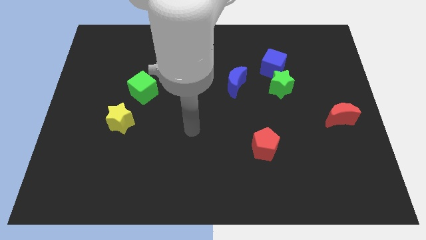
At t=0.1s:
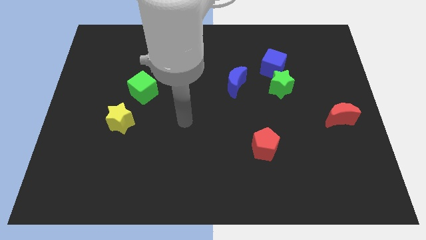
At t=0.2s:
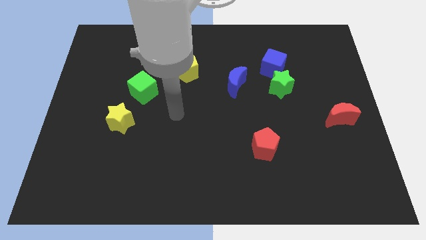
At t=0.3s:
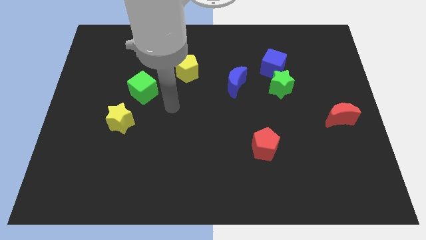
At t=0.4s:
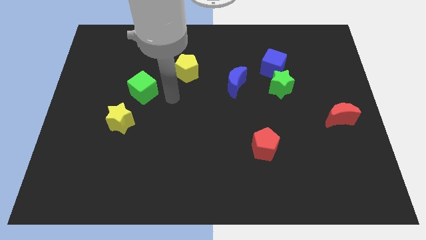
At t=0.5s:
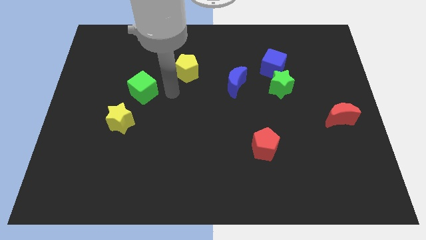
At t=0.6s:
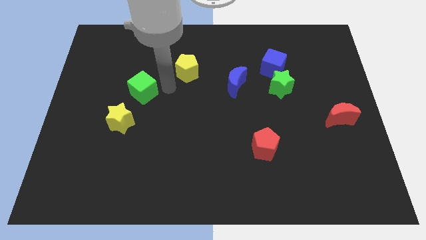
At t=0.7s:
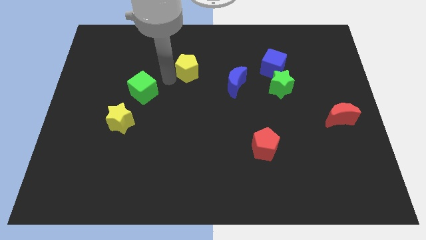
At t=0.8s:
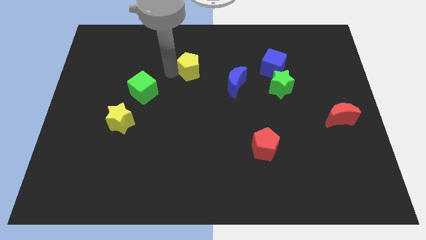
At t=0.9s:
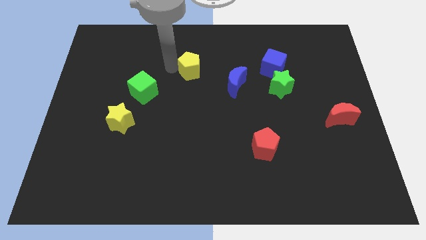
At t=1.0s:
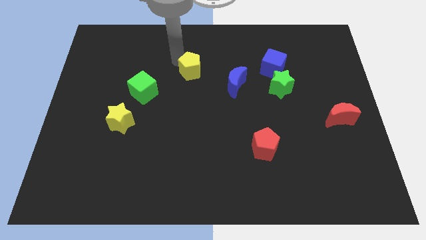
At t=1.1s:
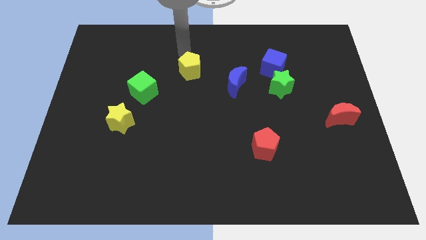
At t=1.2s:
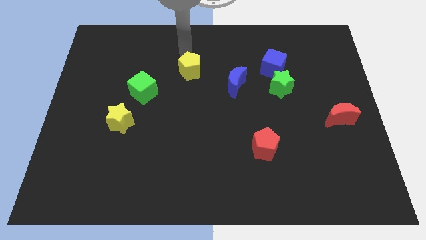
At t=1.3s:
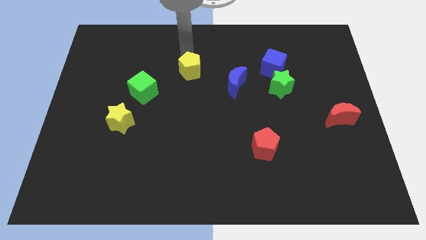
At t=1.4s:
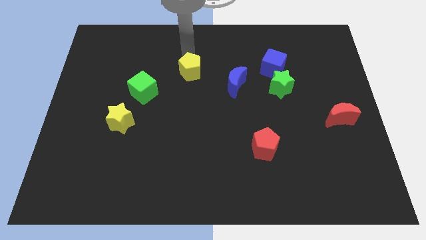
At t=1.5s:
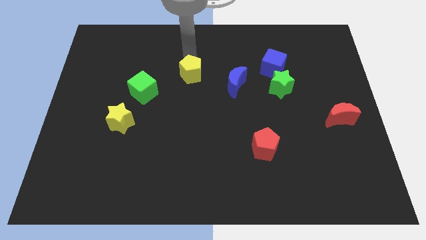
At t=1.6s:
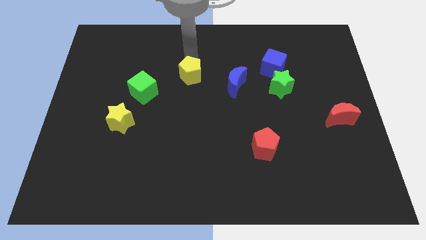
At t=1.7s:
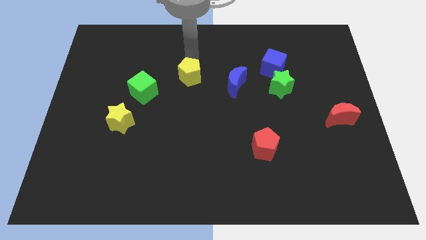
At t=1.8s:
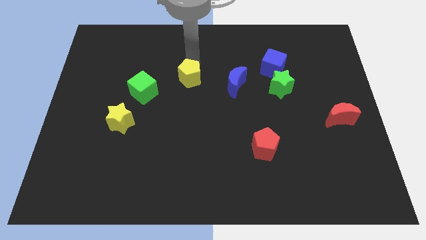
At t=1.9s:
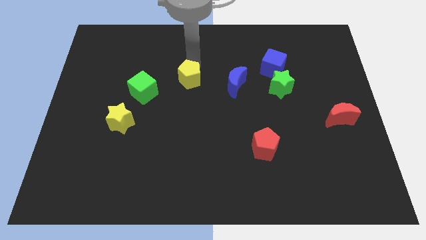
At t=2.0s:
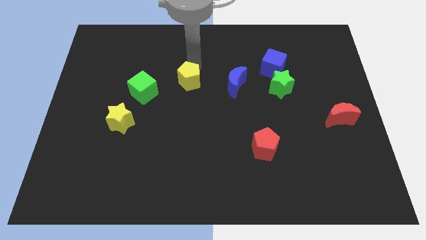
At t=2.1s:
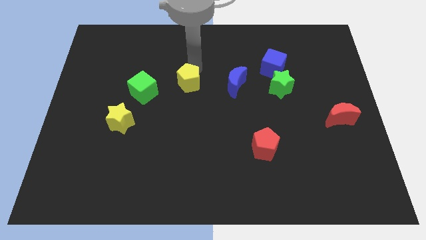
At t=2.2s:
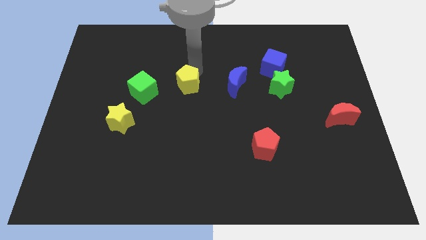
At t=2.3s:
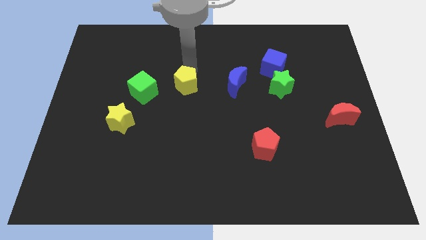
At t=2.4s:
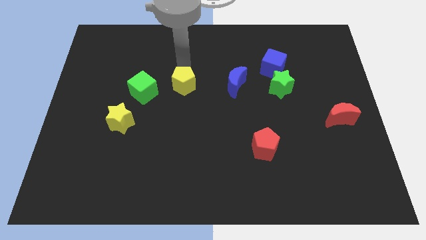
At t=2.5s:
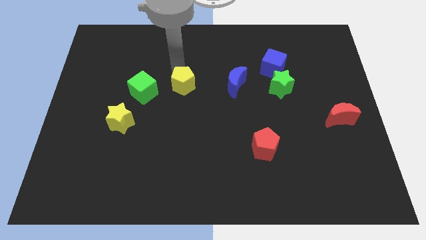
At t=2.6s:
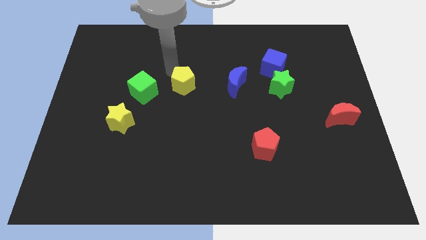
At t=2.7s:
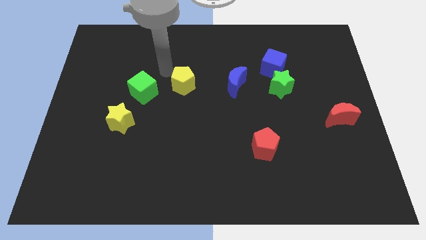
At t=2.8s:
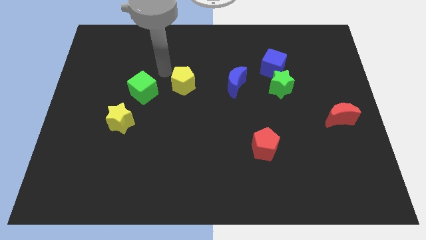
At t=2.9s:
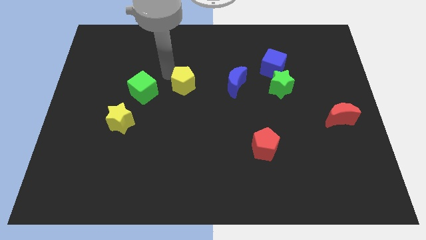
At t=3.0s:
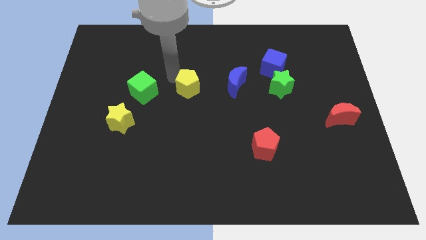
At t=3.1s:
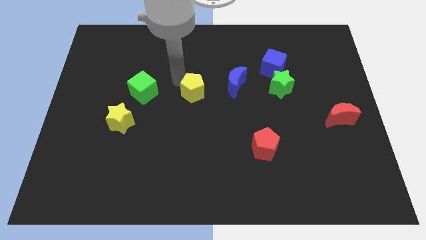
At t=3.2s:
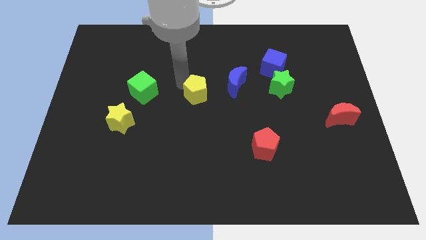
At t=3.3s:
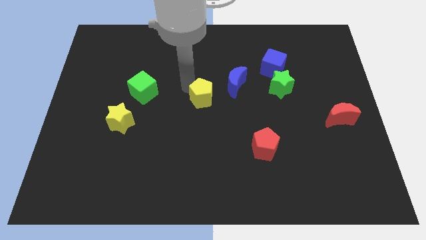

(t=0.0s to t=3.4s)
slightly push the yellow pentagon downwards and then right

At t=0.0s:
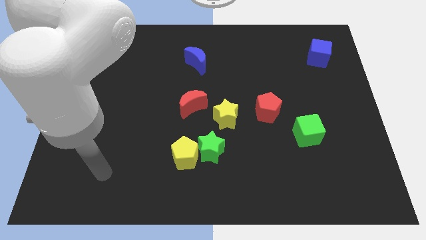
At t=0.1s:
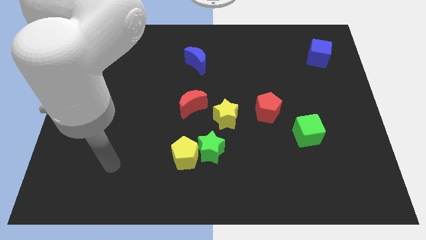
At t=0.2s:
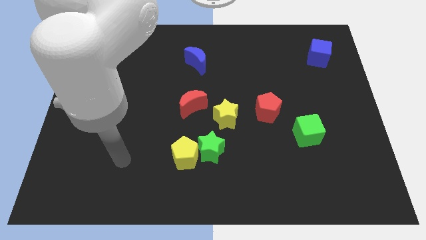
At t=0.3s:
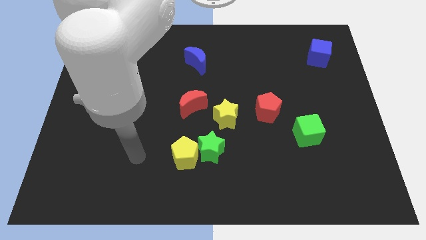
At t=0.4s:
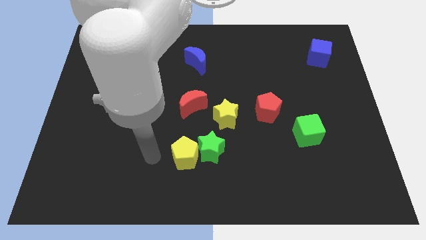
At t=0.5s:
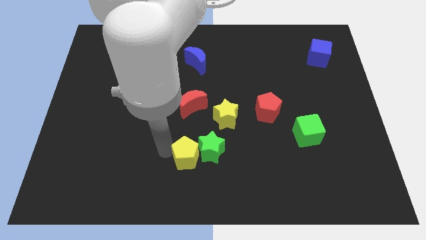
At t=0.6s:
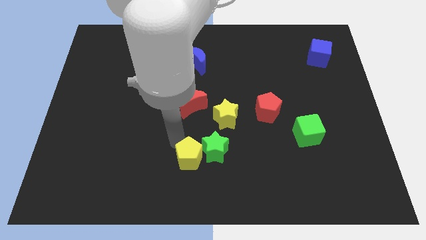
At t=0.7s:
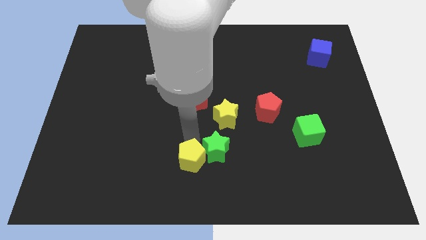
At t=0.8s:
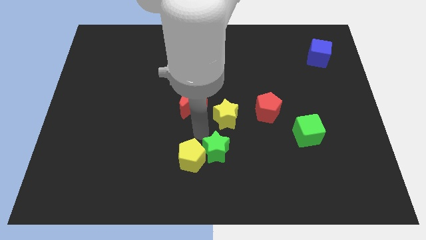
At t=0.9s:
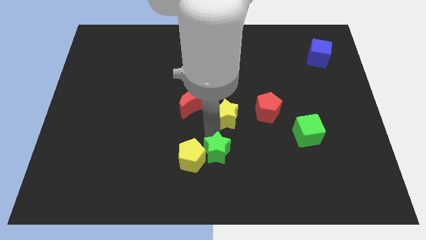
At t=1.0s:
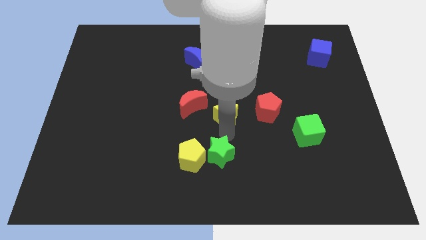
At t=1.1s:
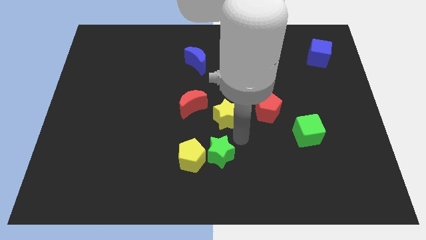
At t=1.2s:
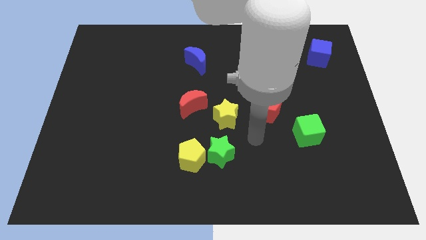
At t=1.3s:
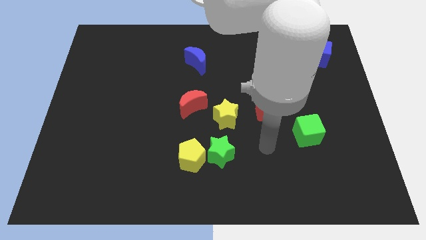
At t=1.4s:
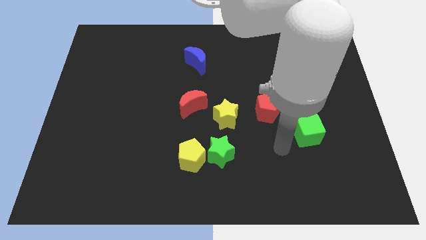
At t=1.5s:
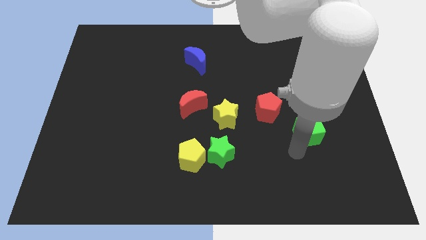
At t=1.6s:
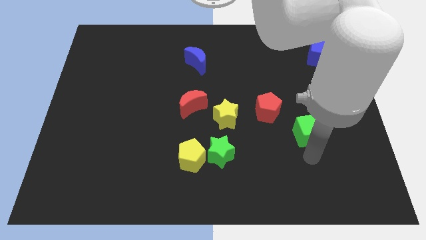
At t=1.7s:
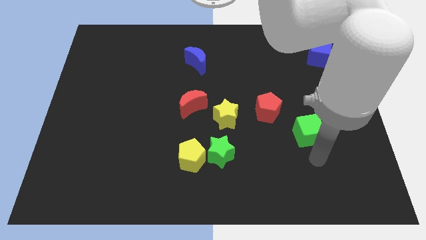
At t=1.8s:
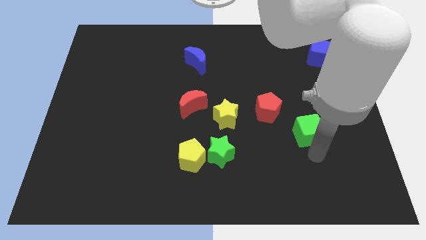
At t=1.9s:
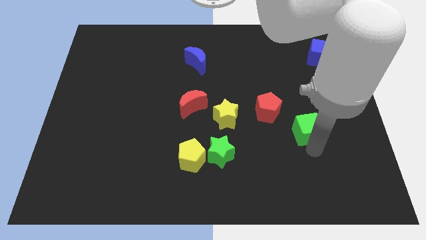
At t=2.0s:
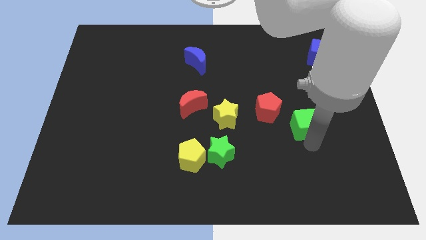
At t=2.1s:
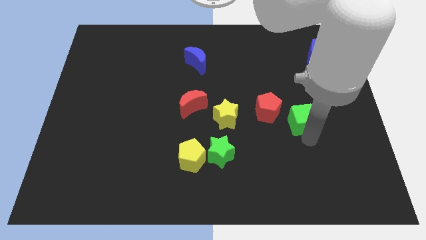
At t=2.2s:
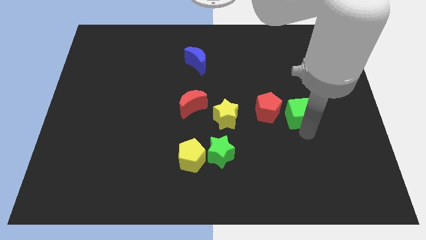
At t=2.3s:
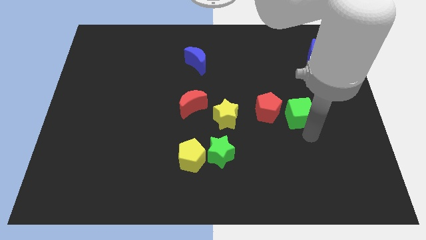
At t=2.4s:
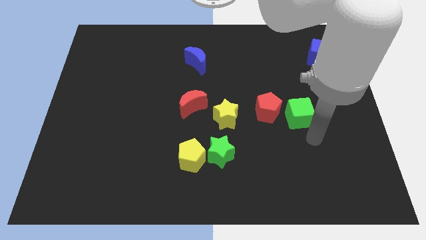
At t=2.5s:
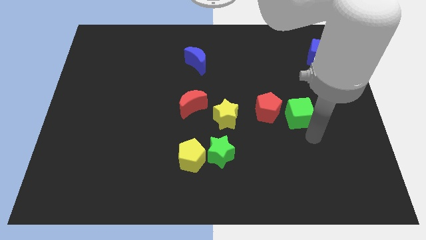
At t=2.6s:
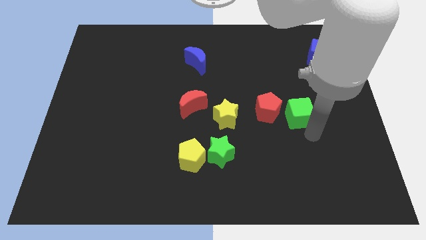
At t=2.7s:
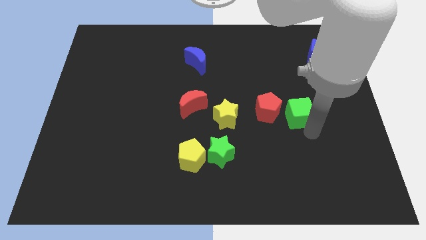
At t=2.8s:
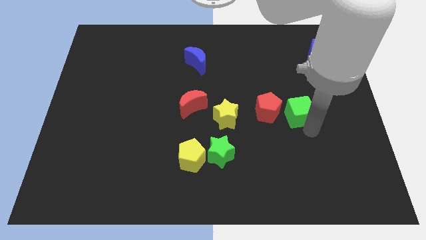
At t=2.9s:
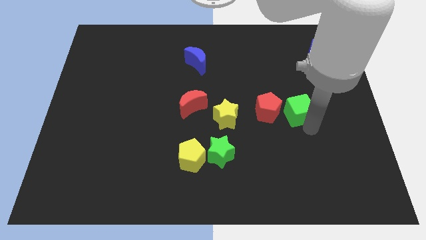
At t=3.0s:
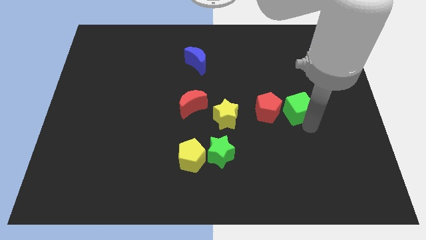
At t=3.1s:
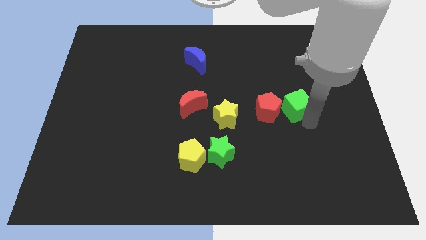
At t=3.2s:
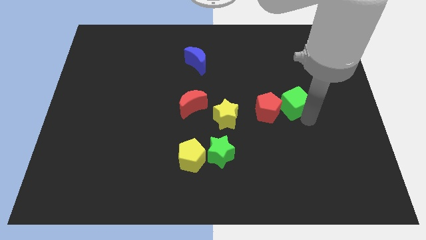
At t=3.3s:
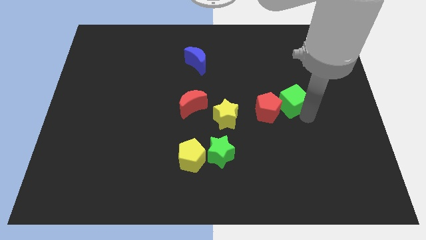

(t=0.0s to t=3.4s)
push the green cube up and left a little

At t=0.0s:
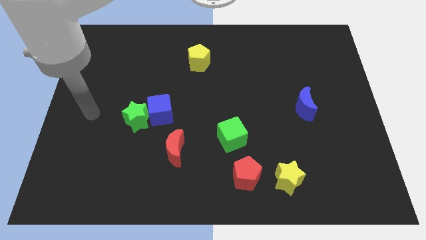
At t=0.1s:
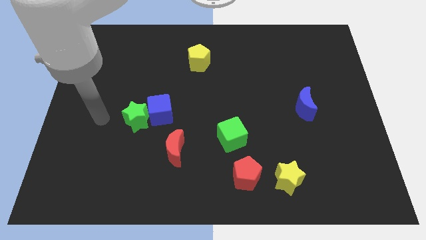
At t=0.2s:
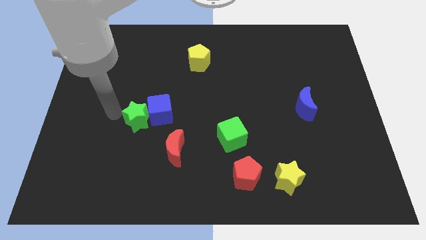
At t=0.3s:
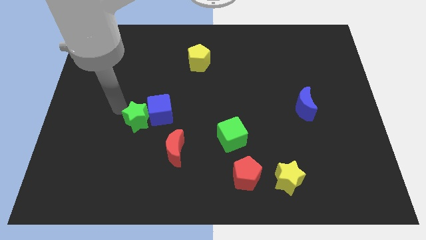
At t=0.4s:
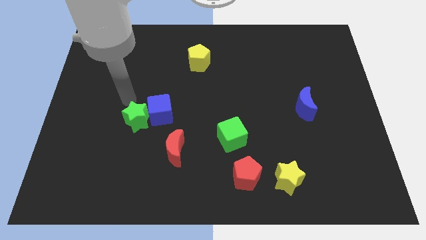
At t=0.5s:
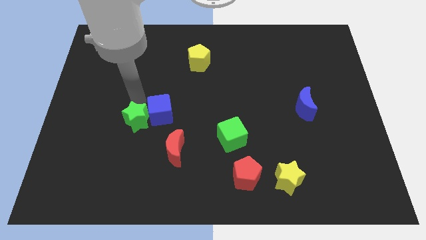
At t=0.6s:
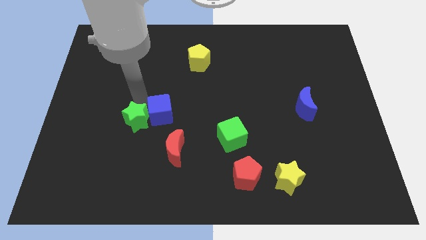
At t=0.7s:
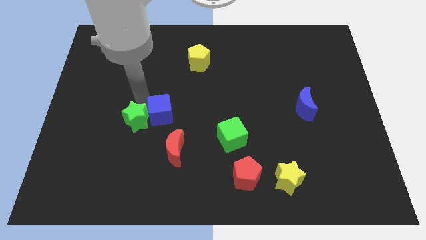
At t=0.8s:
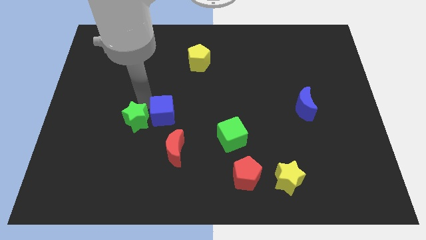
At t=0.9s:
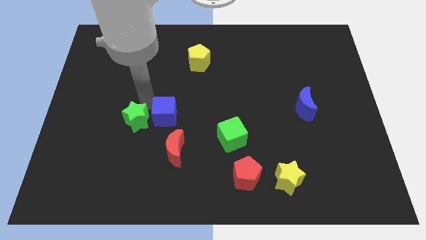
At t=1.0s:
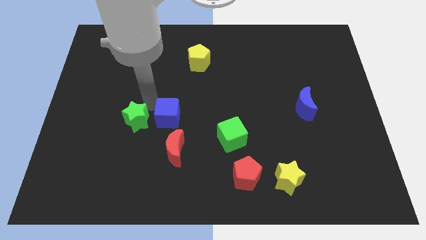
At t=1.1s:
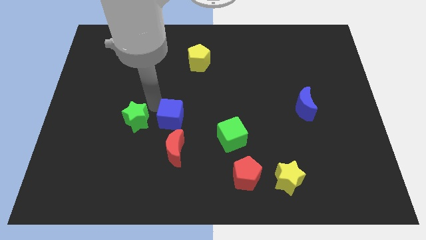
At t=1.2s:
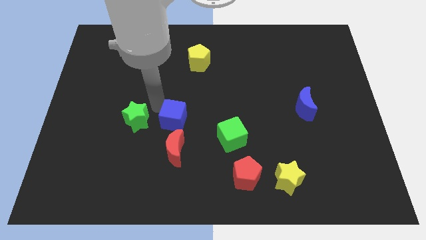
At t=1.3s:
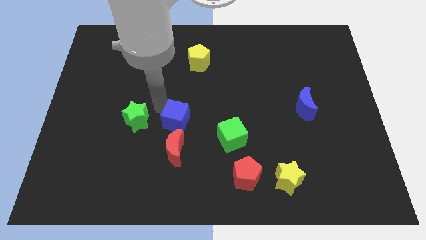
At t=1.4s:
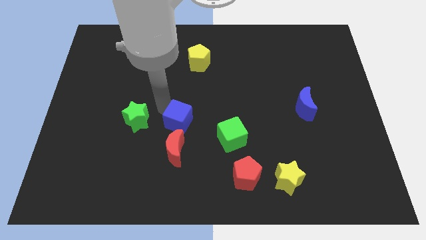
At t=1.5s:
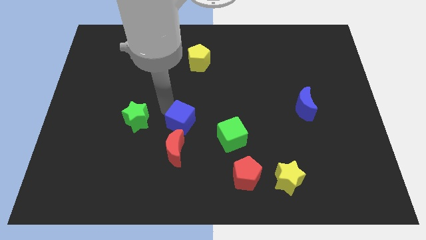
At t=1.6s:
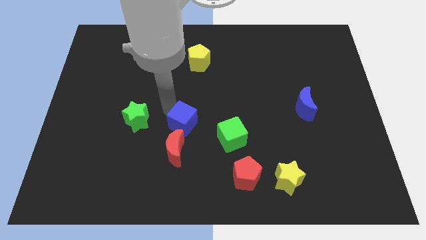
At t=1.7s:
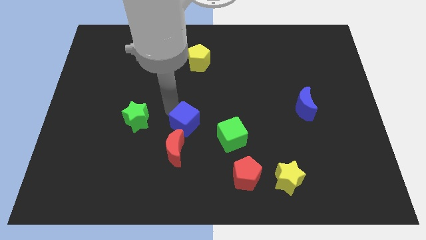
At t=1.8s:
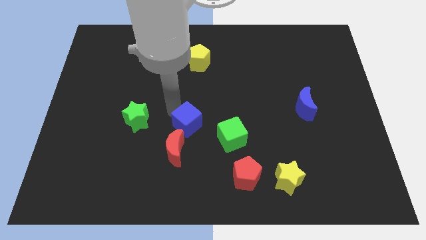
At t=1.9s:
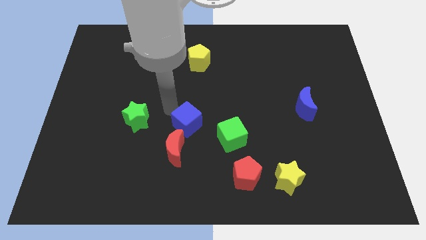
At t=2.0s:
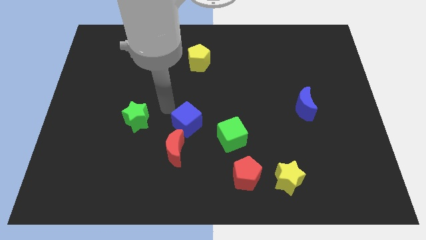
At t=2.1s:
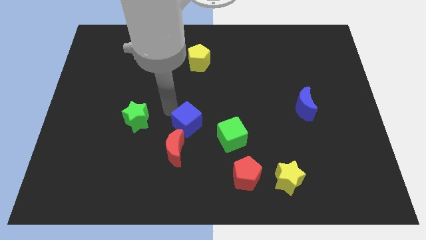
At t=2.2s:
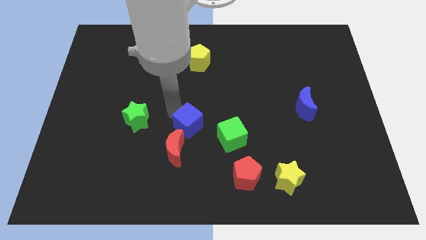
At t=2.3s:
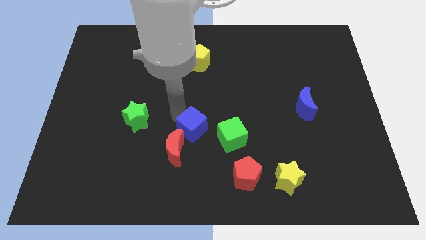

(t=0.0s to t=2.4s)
move the blue cube slightly downwards and right
